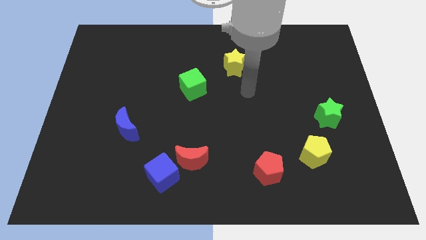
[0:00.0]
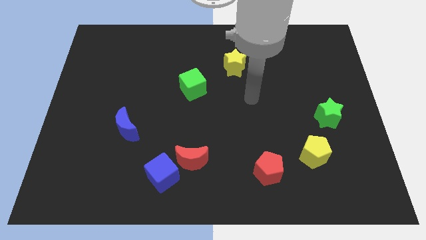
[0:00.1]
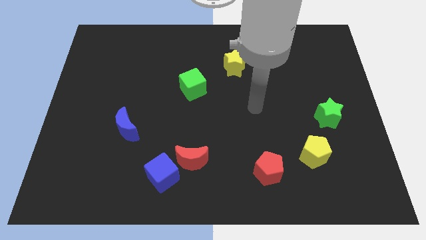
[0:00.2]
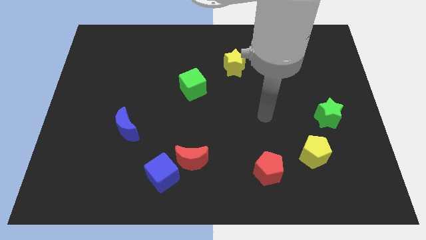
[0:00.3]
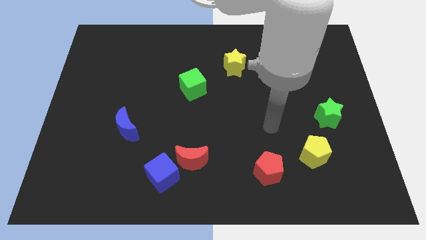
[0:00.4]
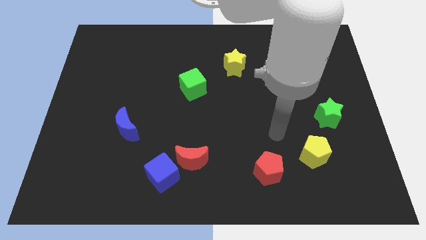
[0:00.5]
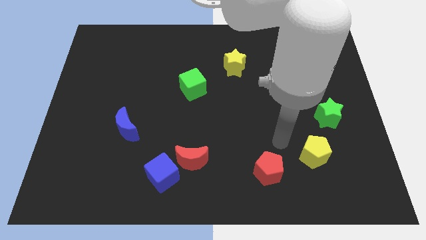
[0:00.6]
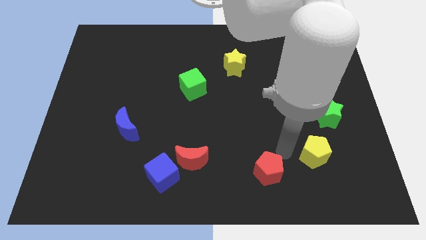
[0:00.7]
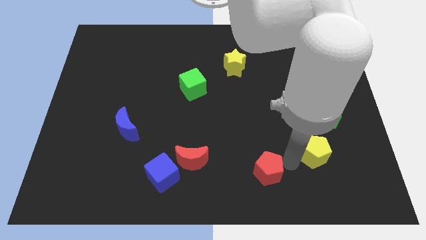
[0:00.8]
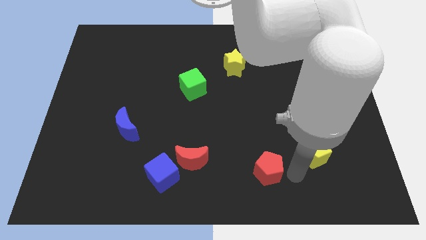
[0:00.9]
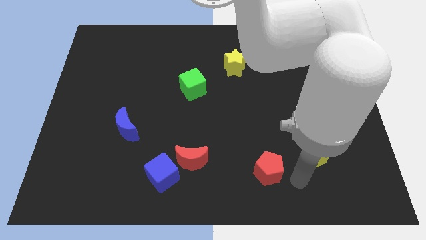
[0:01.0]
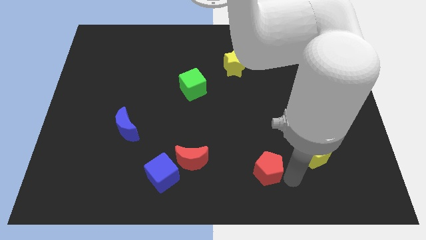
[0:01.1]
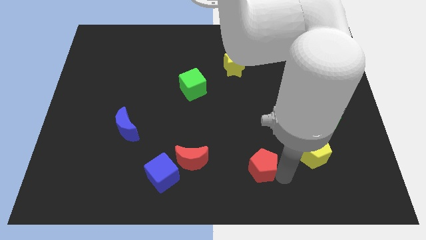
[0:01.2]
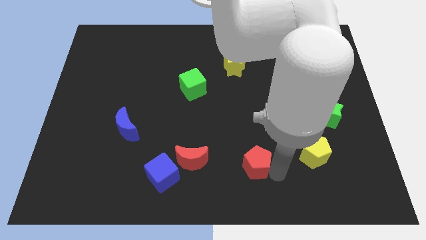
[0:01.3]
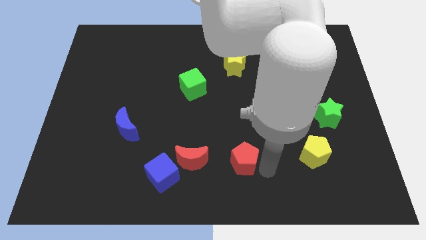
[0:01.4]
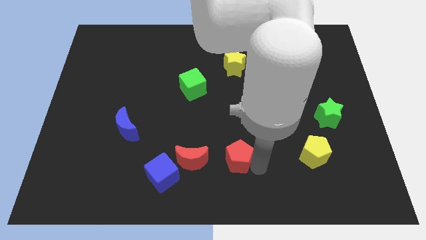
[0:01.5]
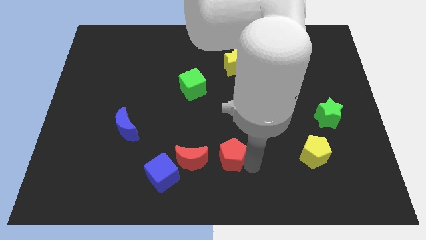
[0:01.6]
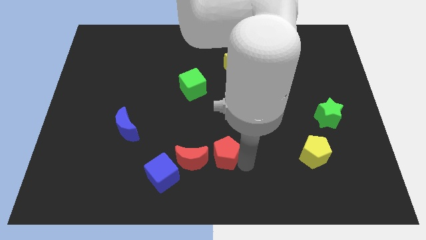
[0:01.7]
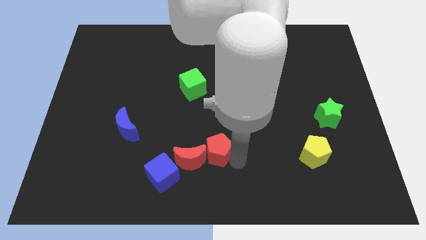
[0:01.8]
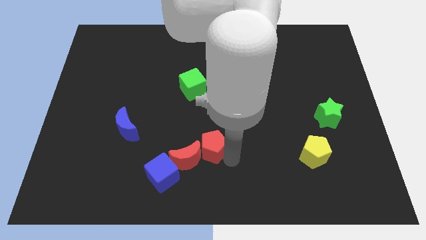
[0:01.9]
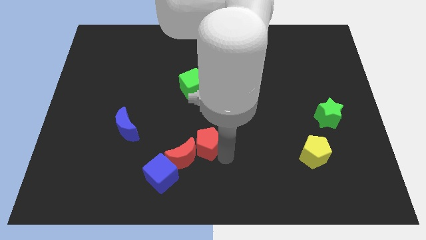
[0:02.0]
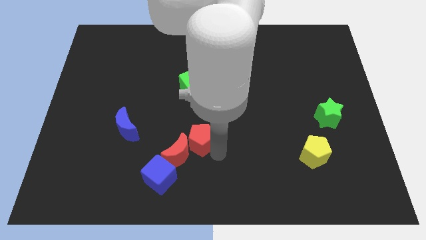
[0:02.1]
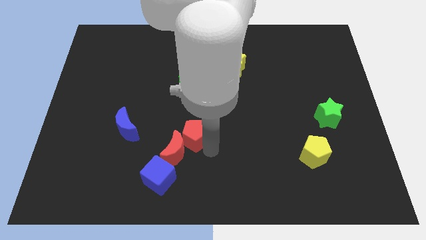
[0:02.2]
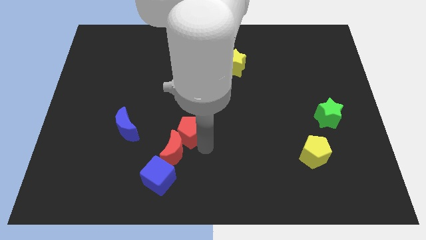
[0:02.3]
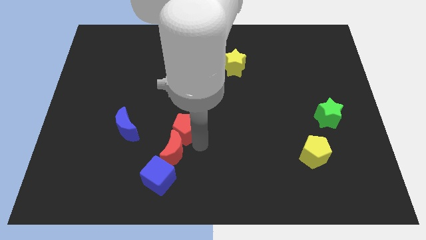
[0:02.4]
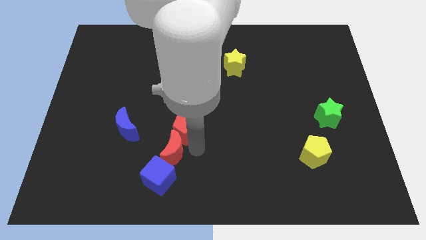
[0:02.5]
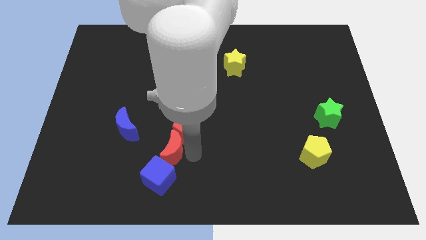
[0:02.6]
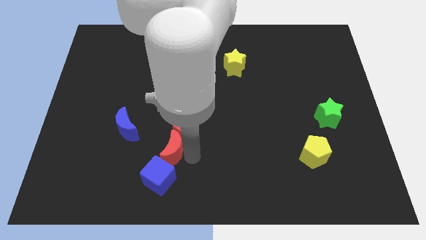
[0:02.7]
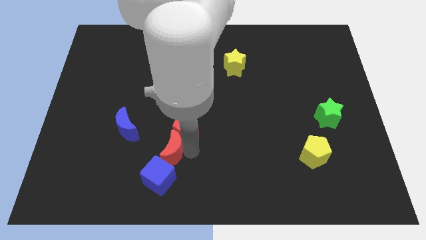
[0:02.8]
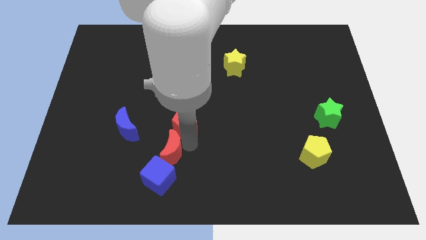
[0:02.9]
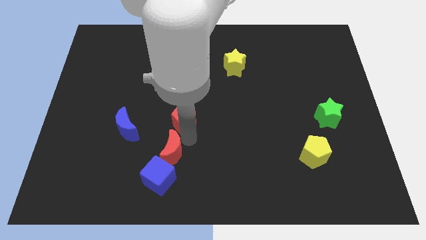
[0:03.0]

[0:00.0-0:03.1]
slide the red pentagon upwards and to the left diagonally

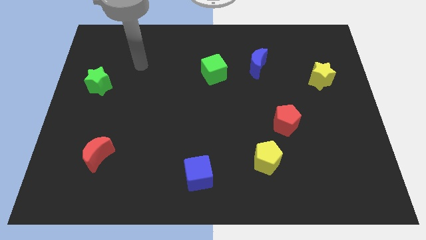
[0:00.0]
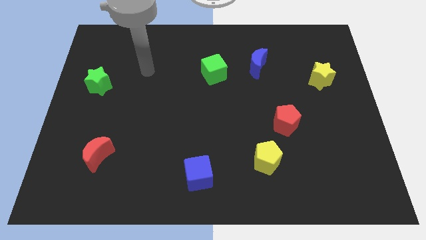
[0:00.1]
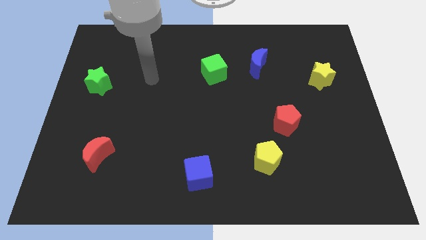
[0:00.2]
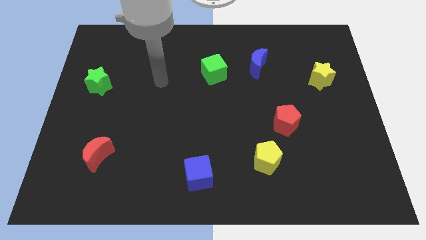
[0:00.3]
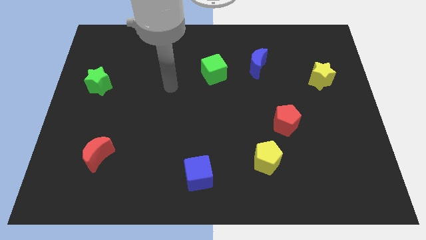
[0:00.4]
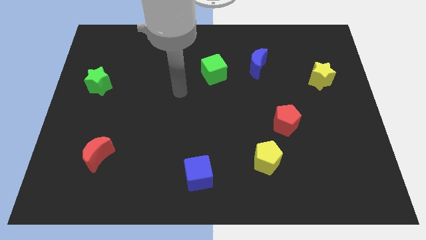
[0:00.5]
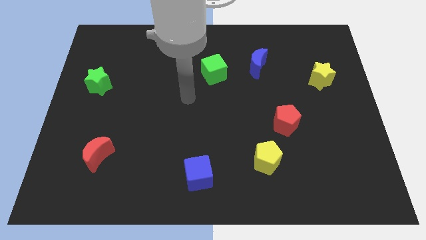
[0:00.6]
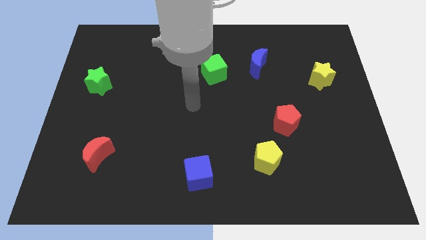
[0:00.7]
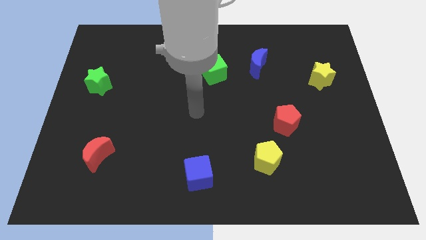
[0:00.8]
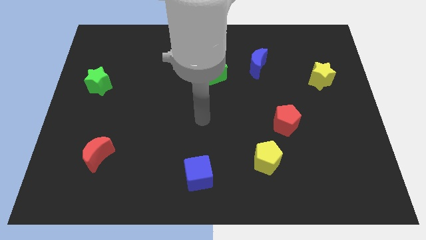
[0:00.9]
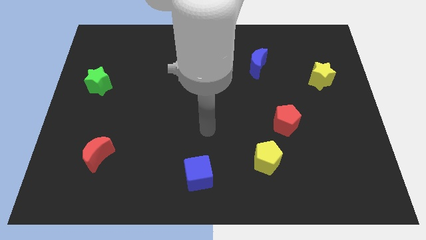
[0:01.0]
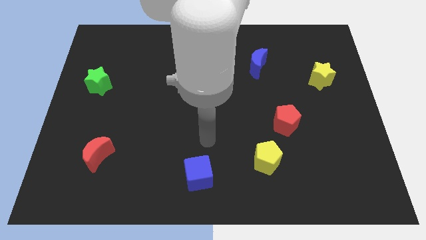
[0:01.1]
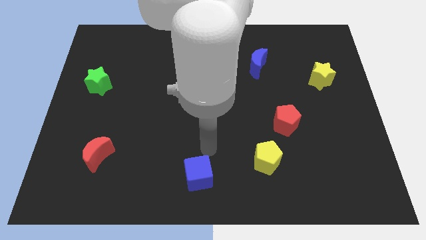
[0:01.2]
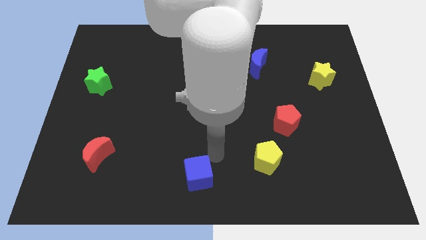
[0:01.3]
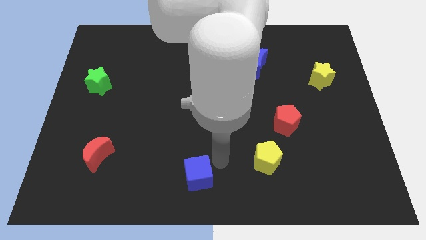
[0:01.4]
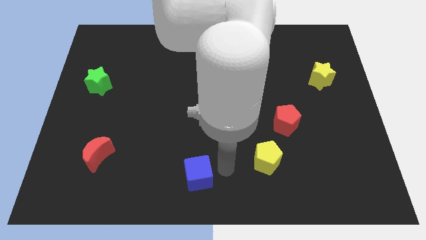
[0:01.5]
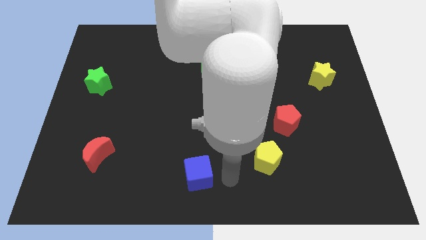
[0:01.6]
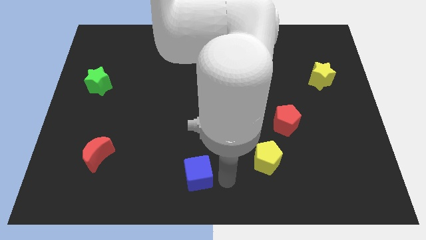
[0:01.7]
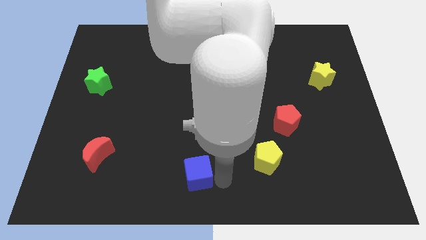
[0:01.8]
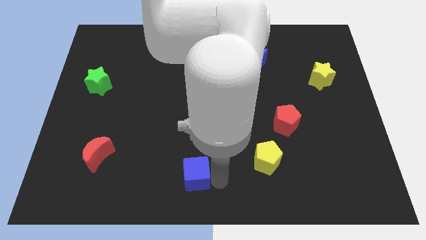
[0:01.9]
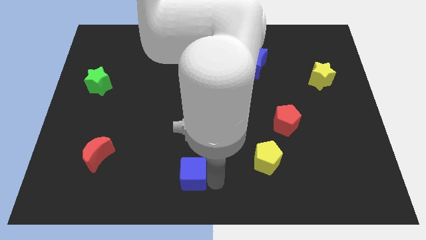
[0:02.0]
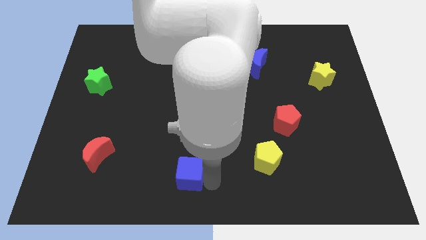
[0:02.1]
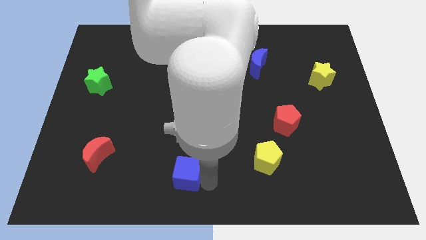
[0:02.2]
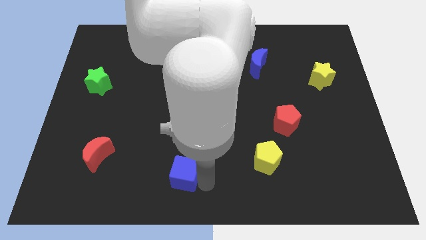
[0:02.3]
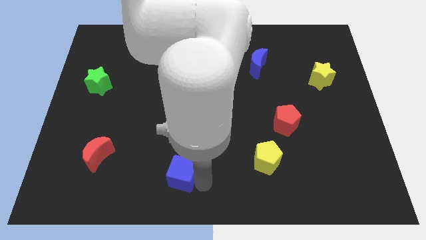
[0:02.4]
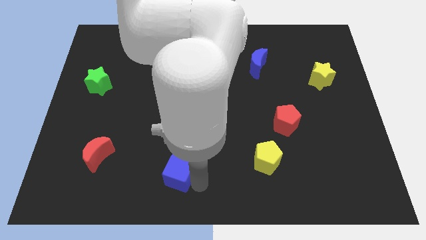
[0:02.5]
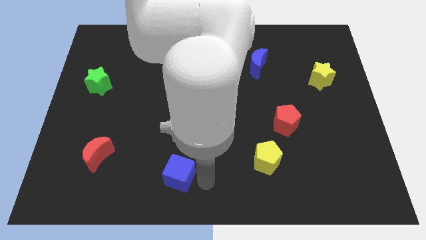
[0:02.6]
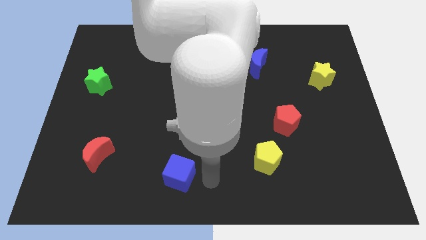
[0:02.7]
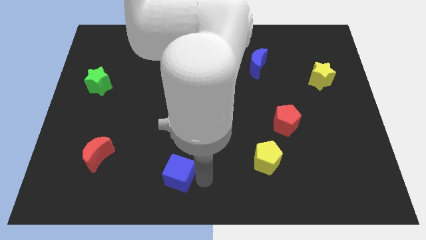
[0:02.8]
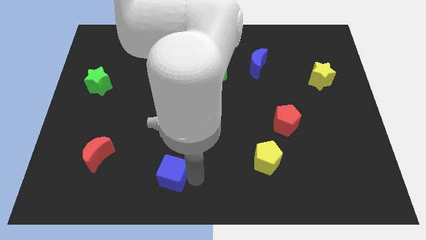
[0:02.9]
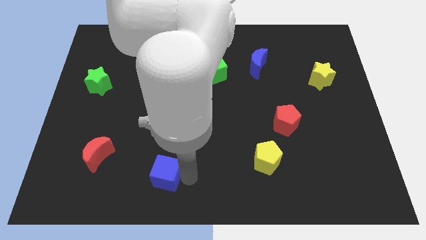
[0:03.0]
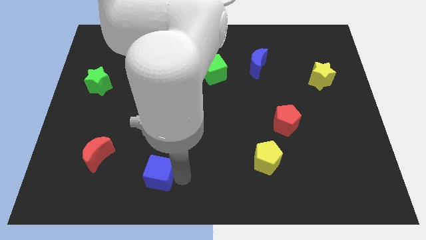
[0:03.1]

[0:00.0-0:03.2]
slightly push the blue cube left

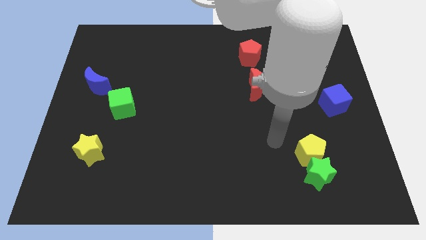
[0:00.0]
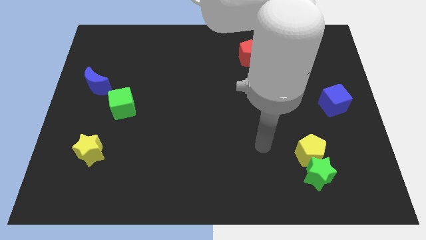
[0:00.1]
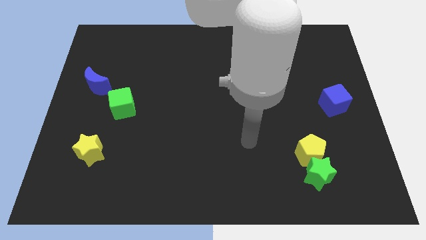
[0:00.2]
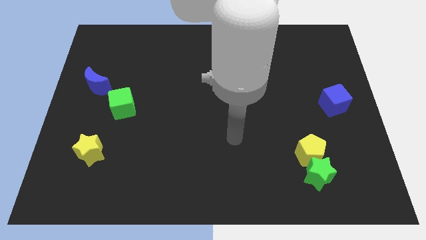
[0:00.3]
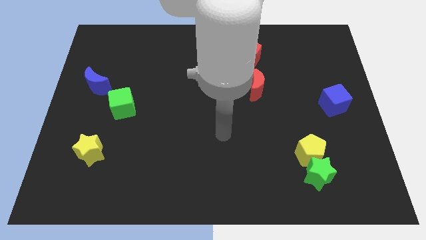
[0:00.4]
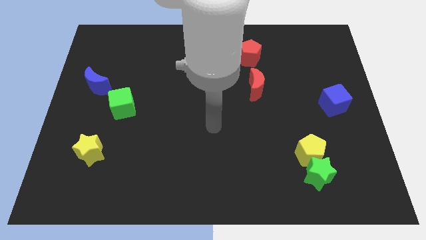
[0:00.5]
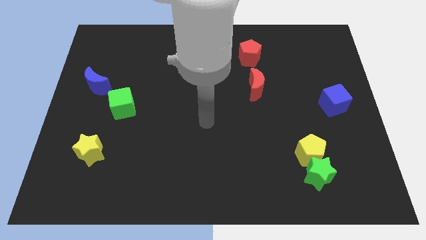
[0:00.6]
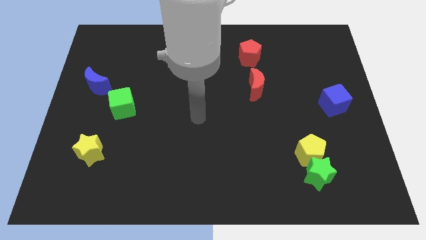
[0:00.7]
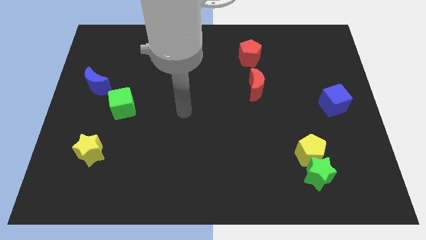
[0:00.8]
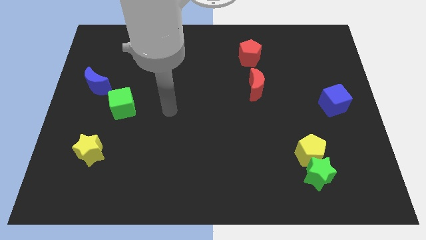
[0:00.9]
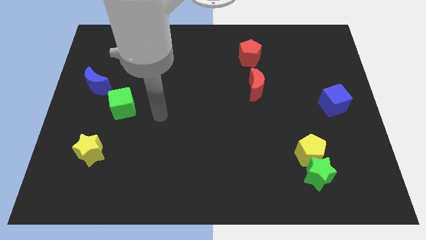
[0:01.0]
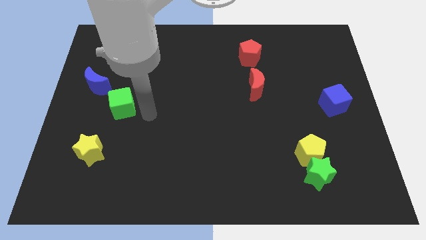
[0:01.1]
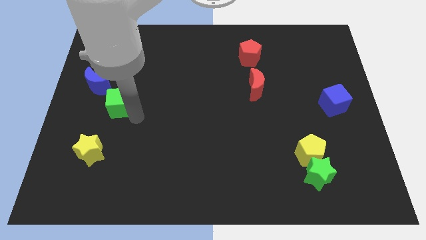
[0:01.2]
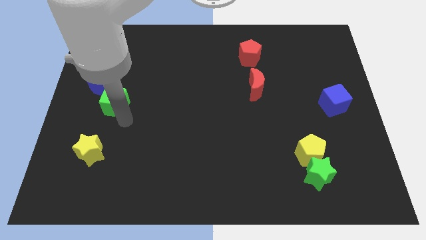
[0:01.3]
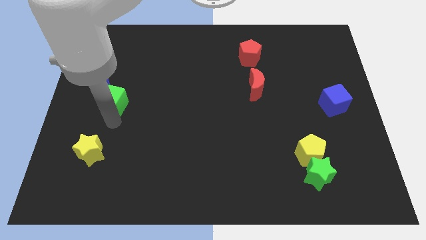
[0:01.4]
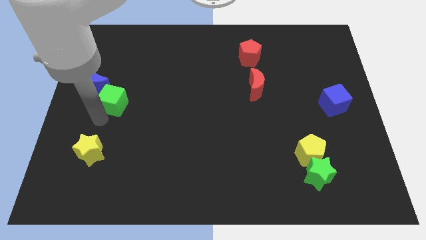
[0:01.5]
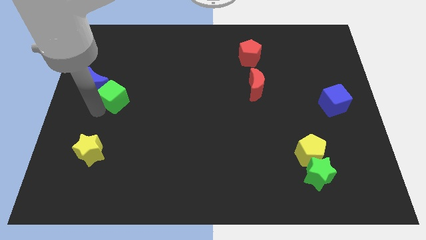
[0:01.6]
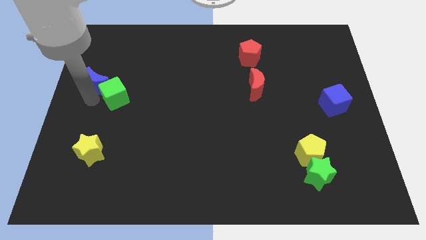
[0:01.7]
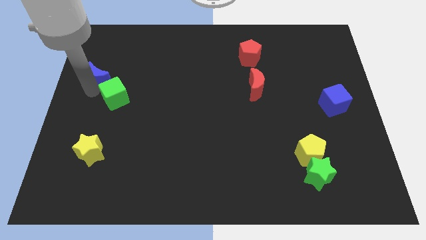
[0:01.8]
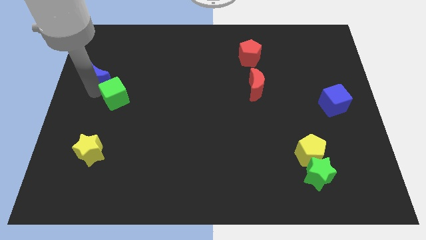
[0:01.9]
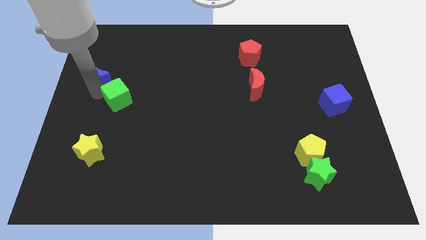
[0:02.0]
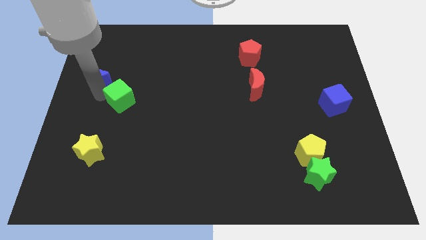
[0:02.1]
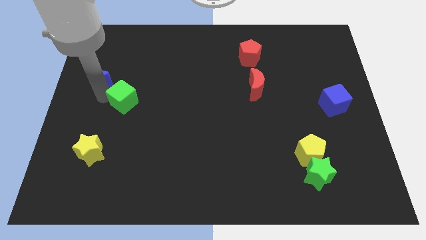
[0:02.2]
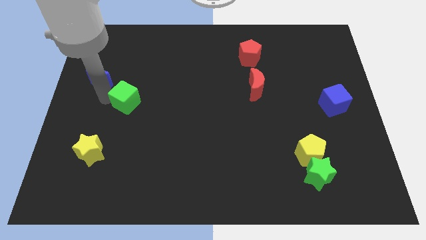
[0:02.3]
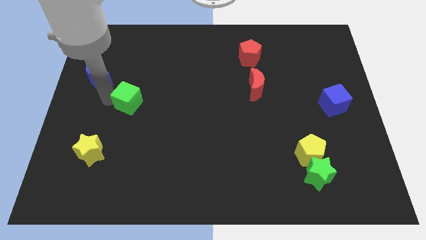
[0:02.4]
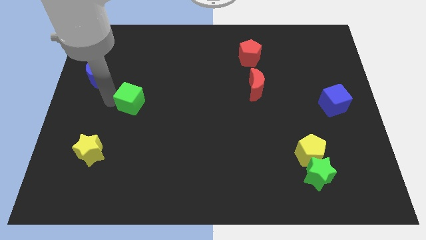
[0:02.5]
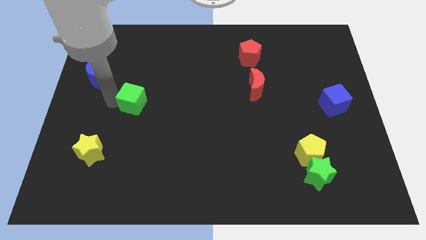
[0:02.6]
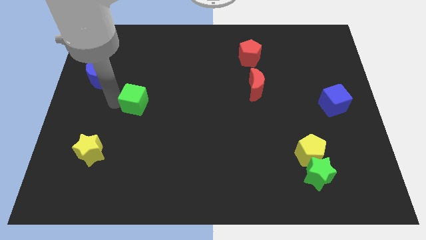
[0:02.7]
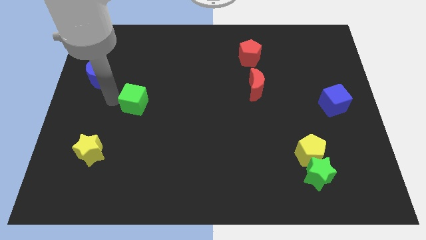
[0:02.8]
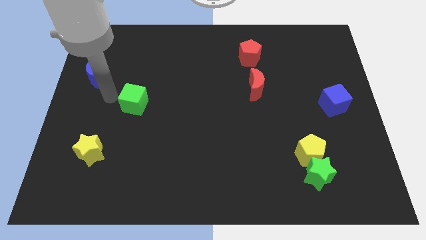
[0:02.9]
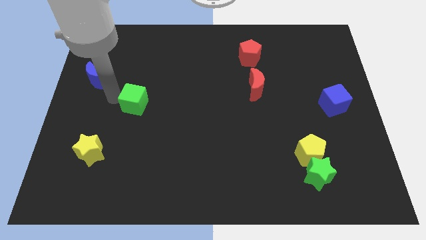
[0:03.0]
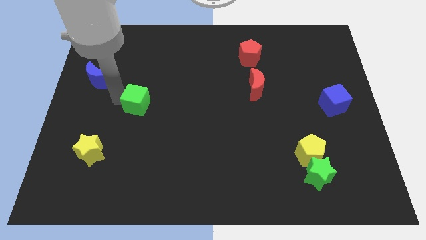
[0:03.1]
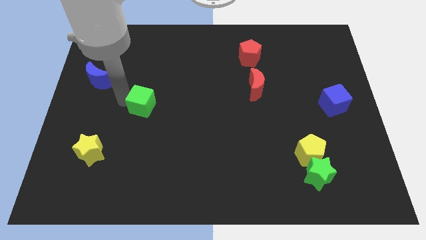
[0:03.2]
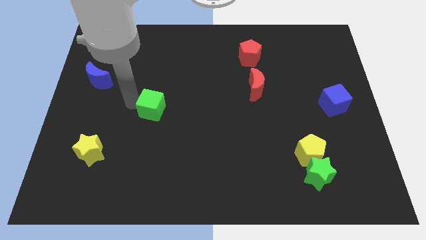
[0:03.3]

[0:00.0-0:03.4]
move the green cube to the right a little
